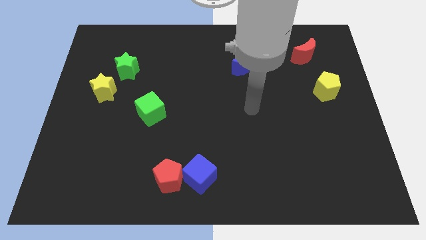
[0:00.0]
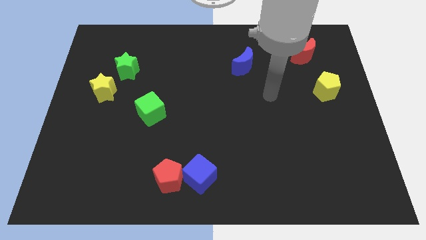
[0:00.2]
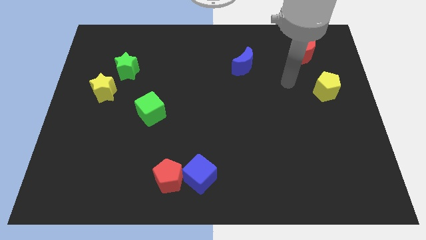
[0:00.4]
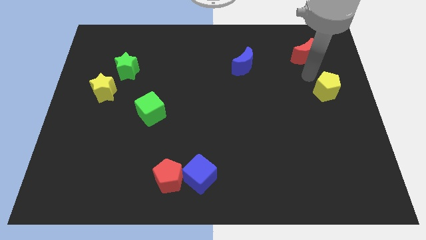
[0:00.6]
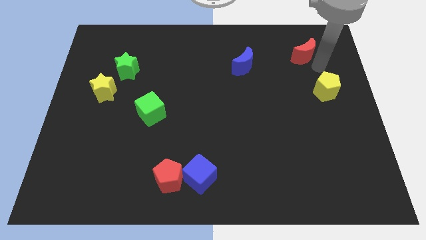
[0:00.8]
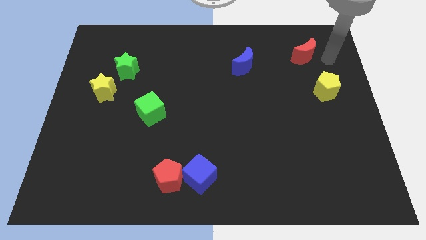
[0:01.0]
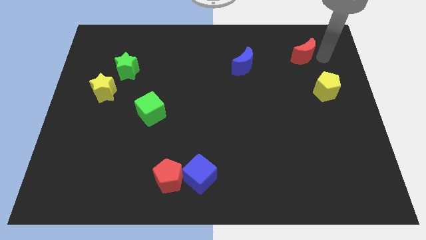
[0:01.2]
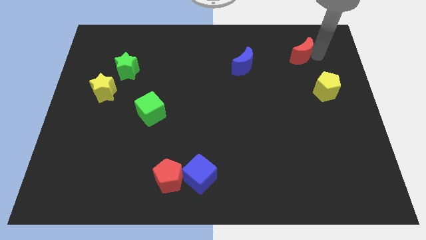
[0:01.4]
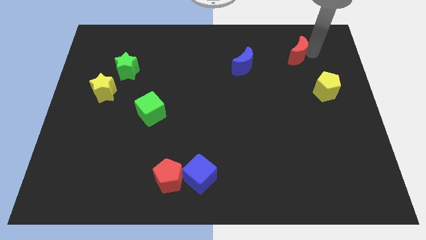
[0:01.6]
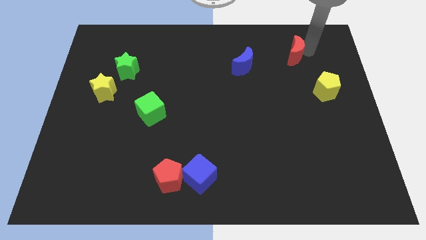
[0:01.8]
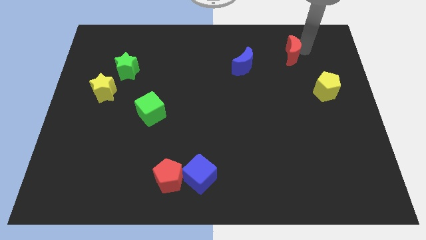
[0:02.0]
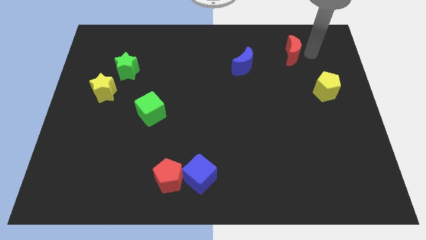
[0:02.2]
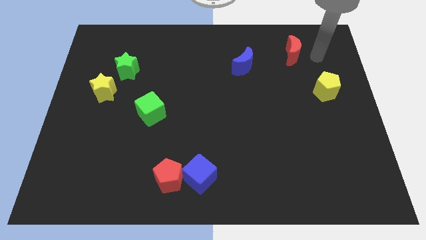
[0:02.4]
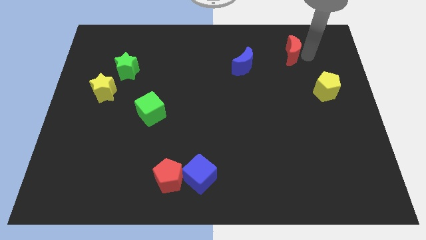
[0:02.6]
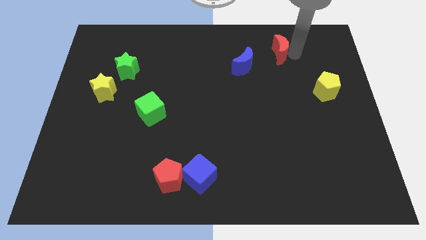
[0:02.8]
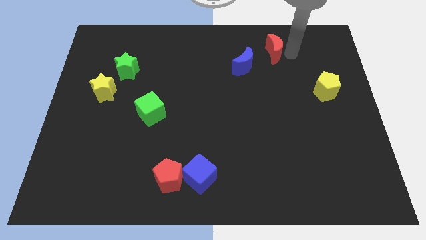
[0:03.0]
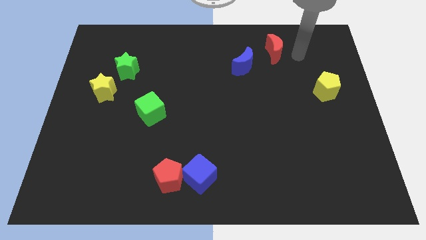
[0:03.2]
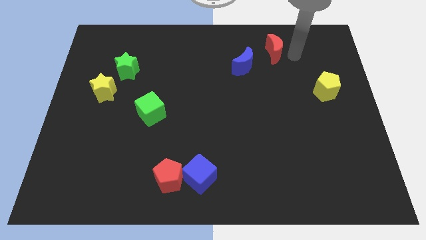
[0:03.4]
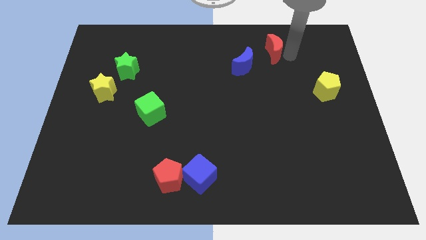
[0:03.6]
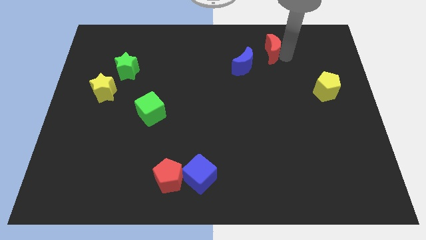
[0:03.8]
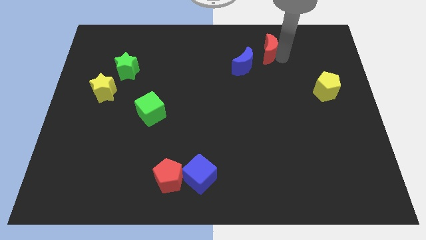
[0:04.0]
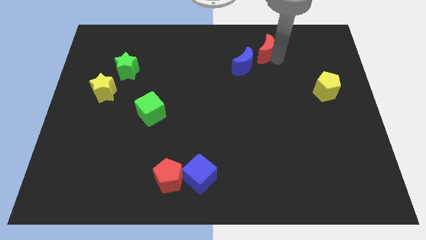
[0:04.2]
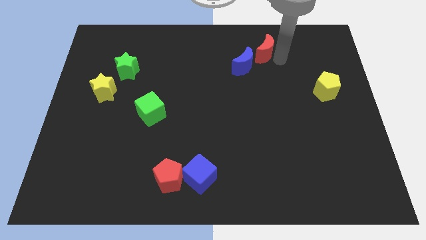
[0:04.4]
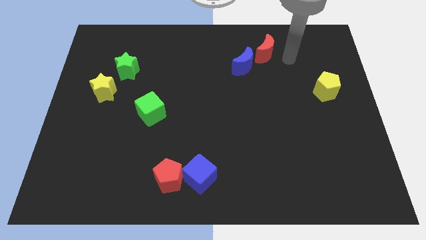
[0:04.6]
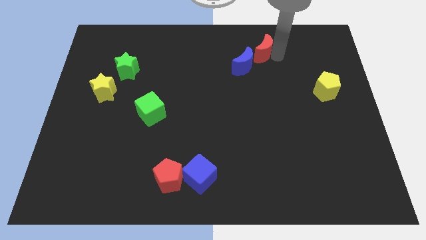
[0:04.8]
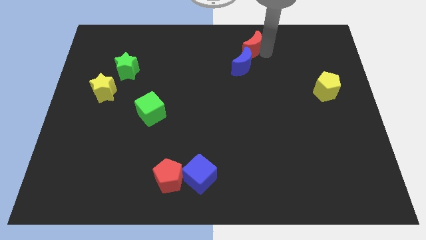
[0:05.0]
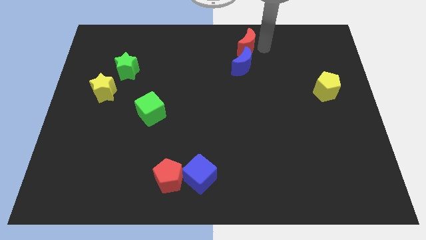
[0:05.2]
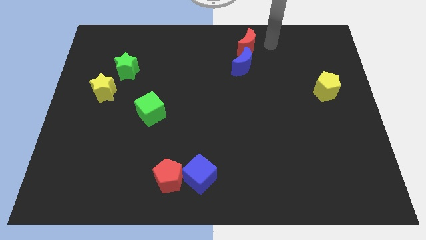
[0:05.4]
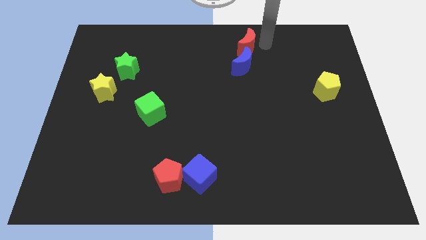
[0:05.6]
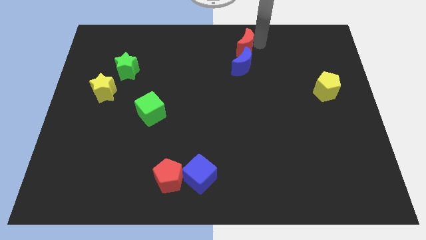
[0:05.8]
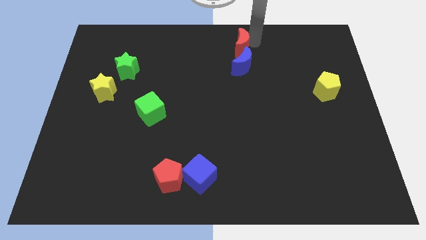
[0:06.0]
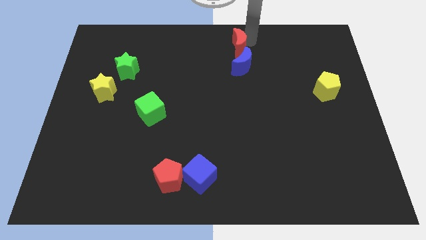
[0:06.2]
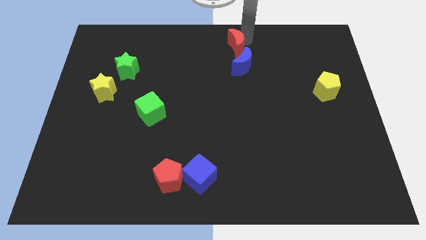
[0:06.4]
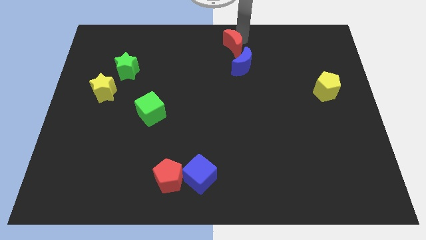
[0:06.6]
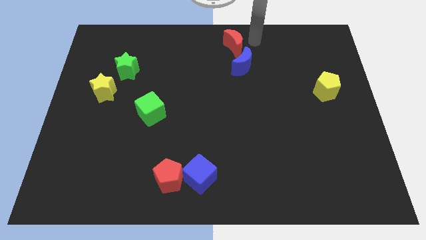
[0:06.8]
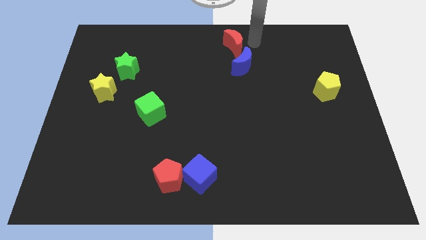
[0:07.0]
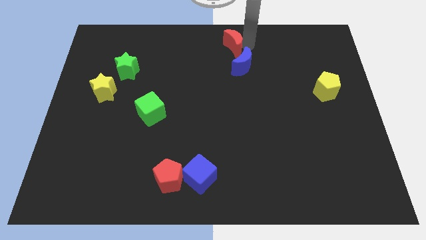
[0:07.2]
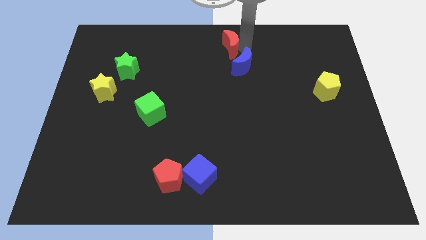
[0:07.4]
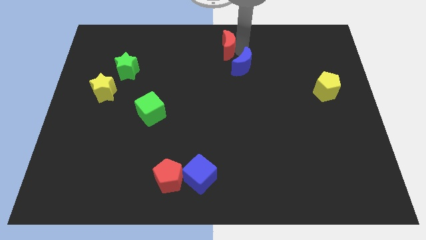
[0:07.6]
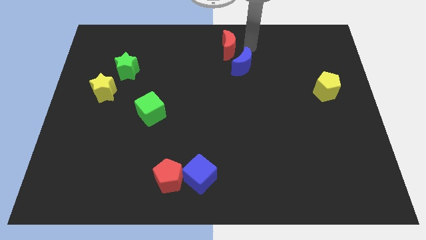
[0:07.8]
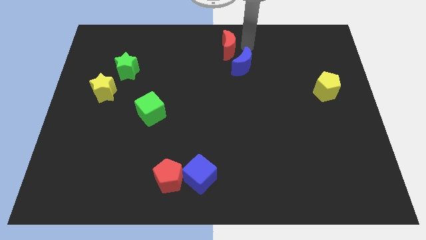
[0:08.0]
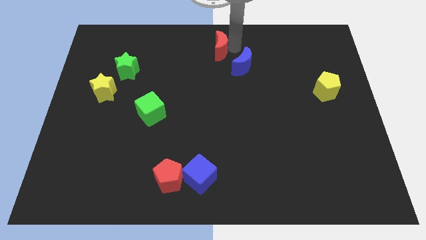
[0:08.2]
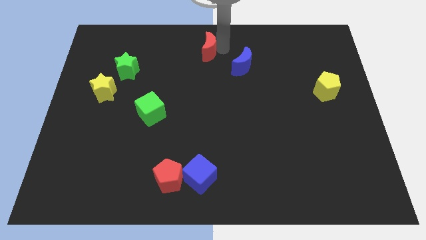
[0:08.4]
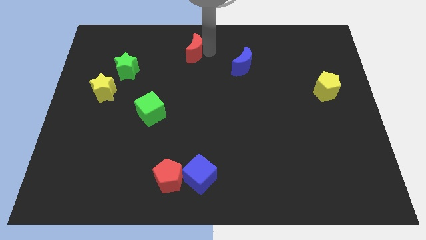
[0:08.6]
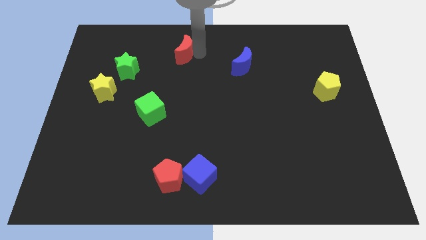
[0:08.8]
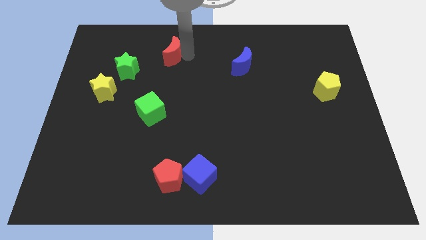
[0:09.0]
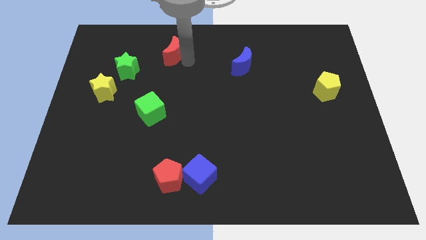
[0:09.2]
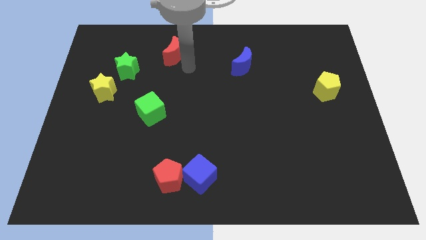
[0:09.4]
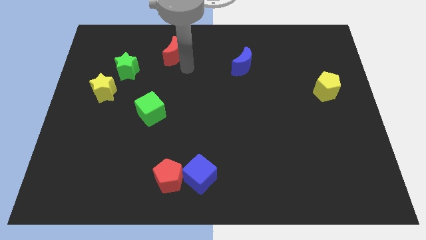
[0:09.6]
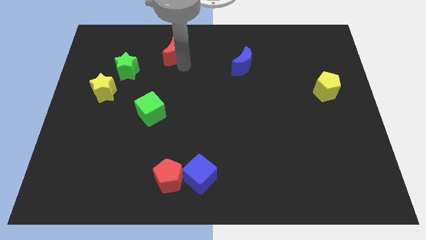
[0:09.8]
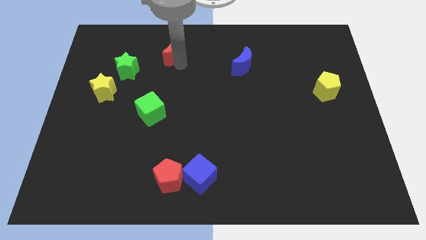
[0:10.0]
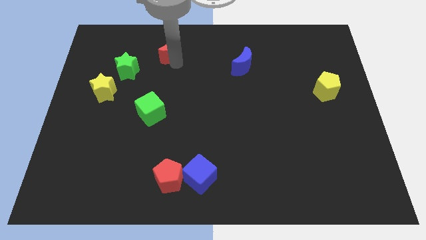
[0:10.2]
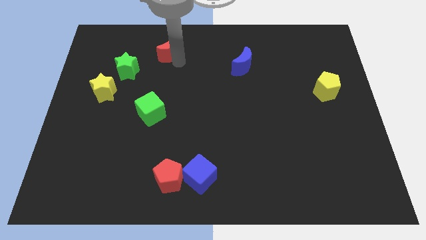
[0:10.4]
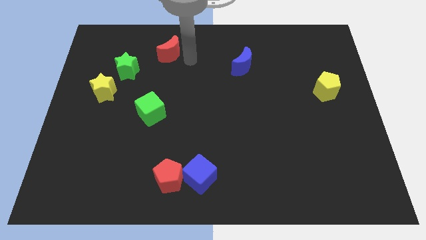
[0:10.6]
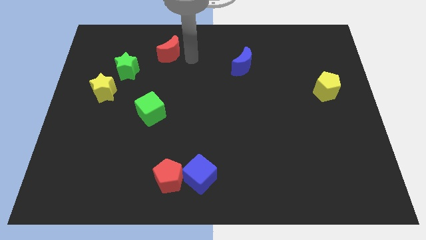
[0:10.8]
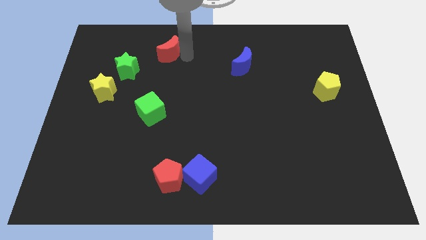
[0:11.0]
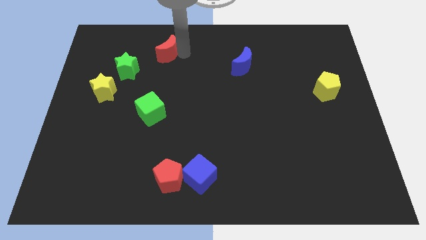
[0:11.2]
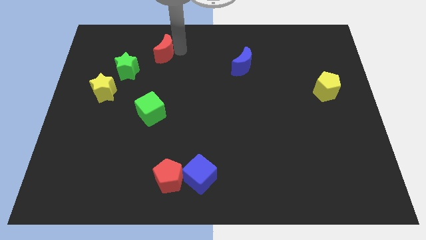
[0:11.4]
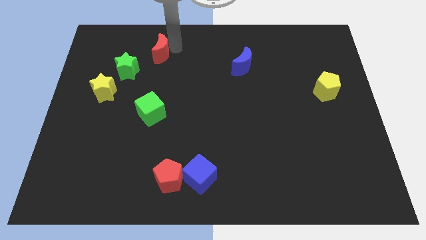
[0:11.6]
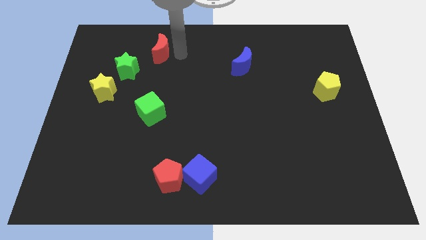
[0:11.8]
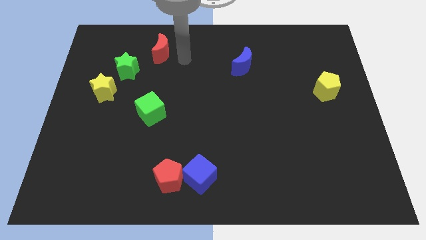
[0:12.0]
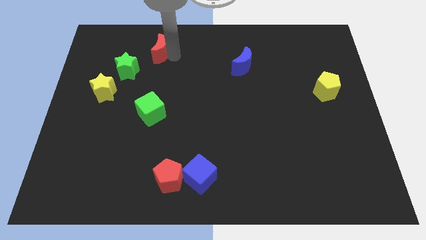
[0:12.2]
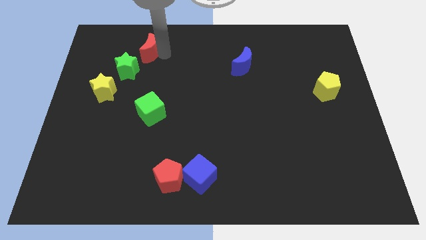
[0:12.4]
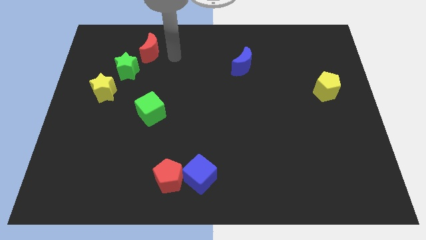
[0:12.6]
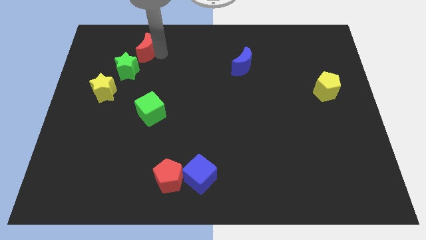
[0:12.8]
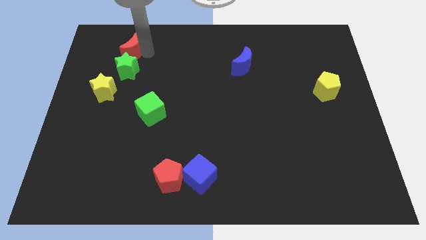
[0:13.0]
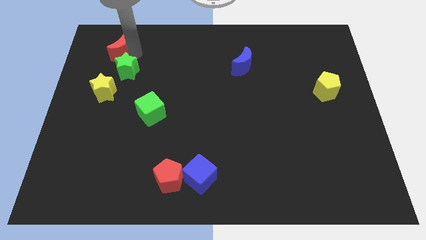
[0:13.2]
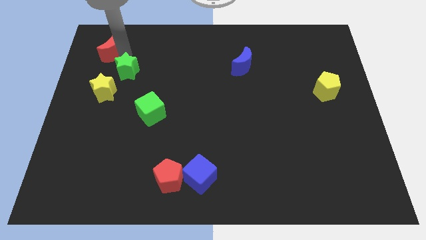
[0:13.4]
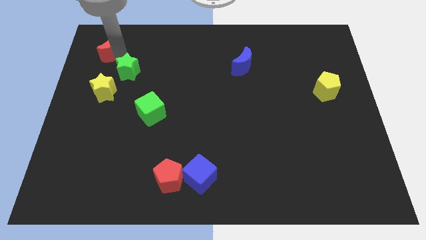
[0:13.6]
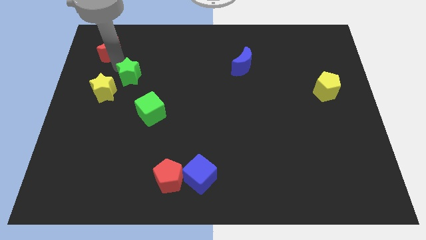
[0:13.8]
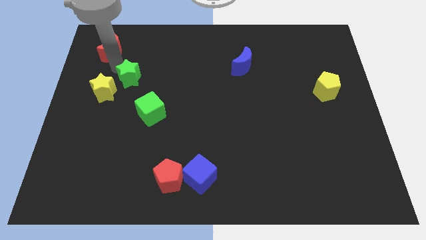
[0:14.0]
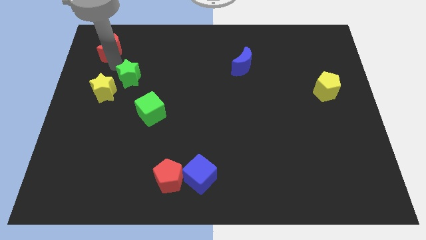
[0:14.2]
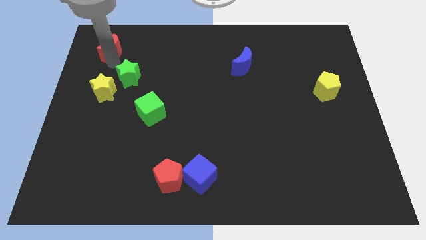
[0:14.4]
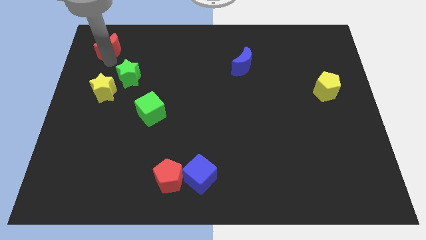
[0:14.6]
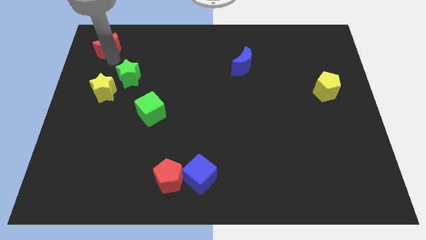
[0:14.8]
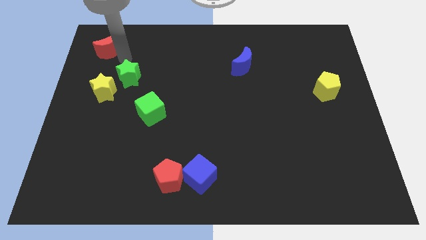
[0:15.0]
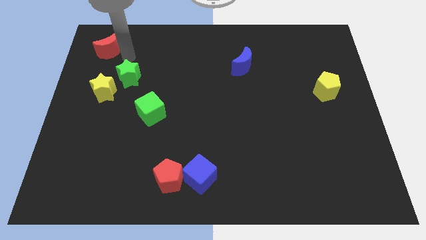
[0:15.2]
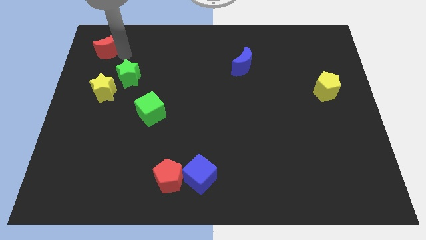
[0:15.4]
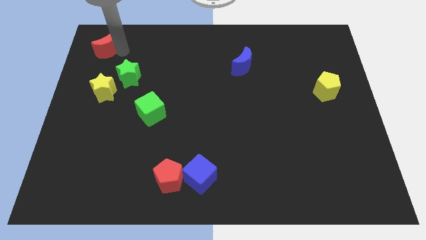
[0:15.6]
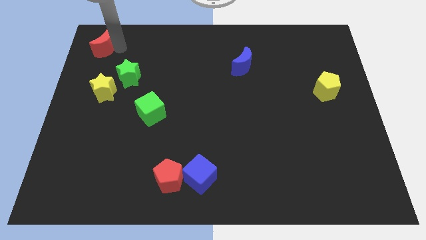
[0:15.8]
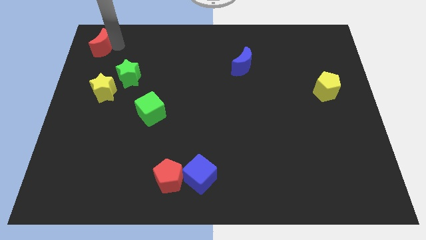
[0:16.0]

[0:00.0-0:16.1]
slide the red moon to the top left corner
